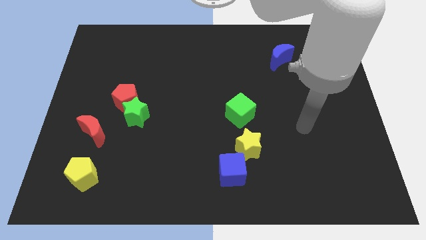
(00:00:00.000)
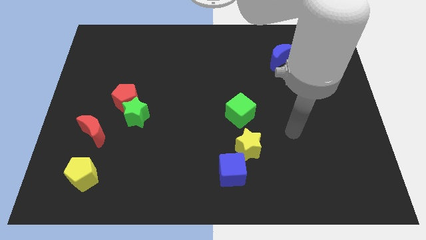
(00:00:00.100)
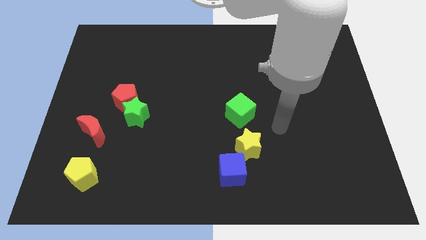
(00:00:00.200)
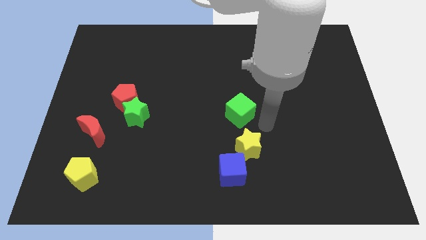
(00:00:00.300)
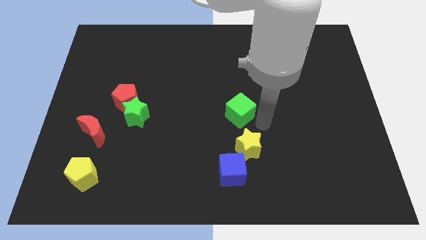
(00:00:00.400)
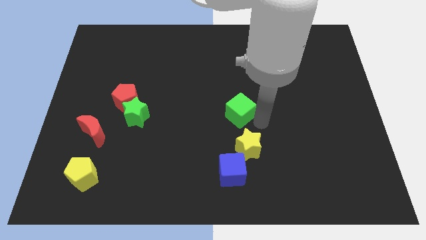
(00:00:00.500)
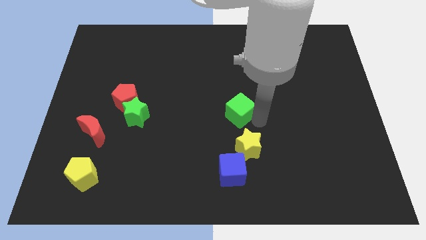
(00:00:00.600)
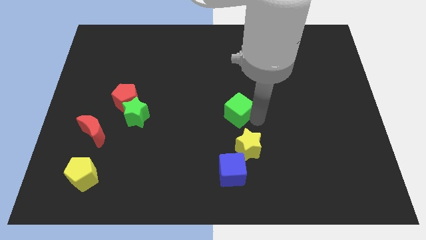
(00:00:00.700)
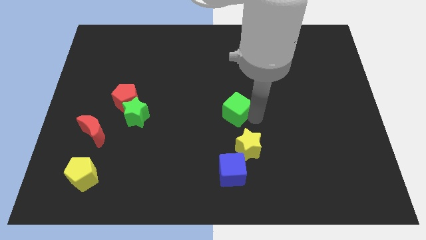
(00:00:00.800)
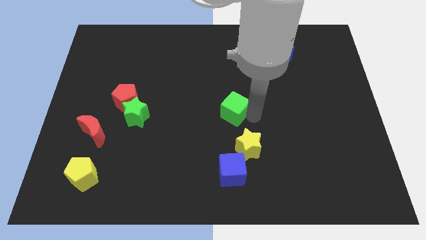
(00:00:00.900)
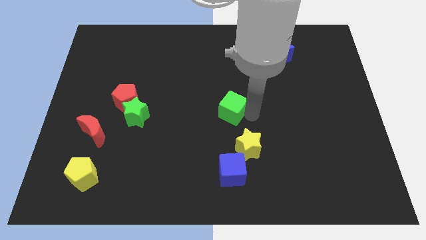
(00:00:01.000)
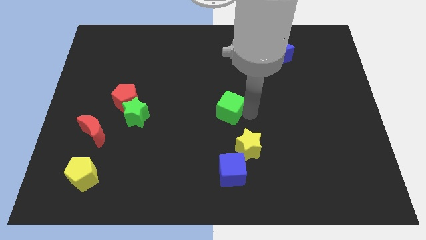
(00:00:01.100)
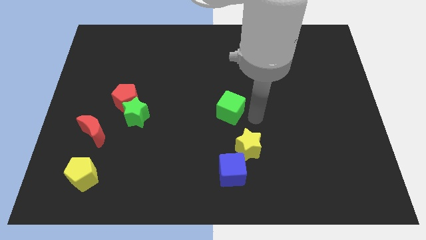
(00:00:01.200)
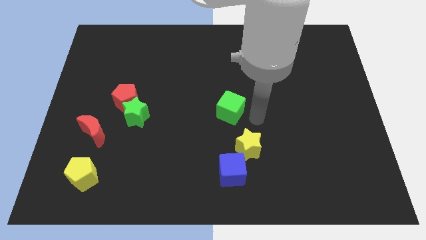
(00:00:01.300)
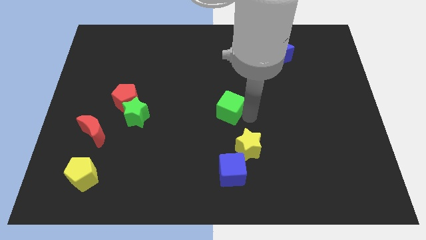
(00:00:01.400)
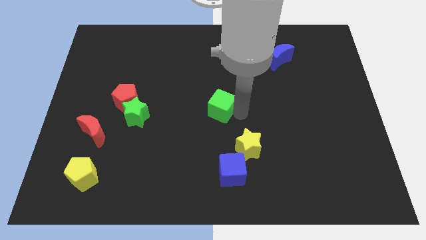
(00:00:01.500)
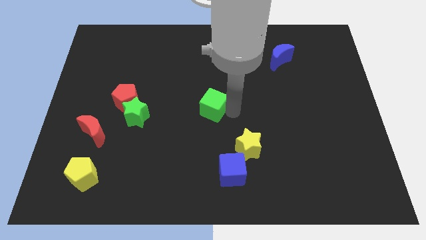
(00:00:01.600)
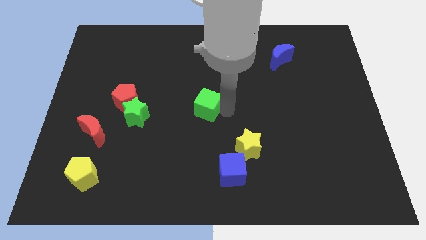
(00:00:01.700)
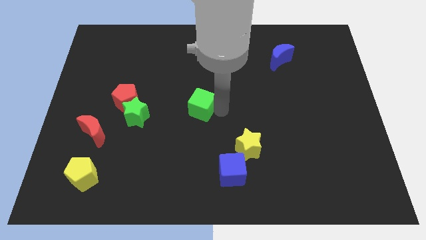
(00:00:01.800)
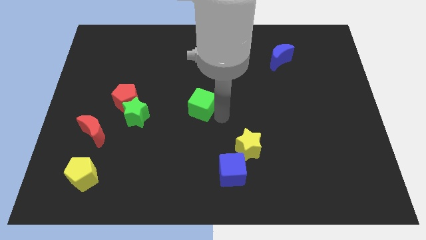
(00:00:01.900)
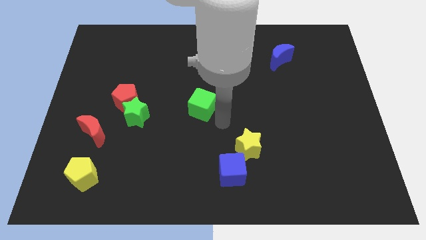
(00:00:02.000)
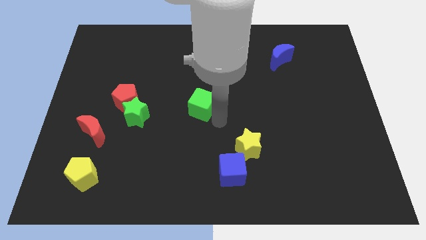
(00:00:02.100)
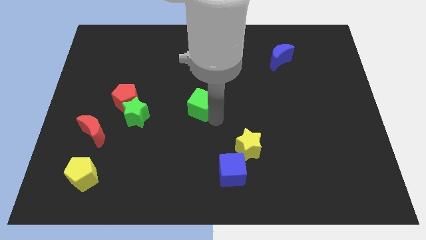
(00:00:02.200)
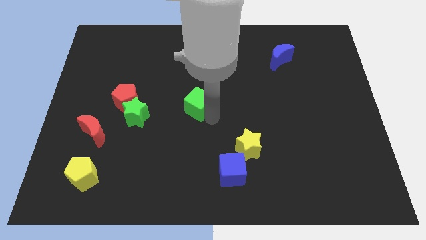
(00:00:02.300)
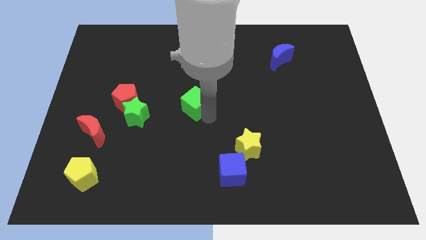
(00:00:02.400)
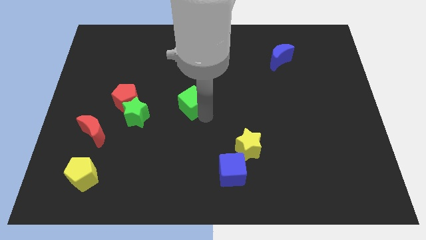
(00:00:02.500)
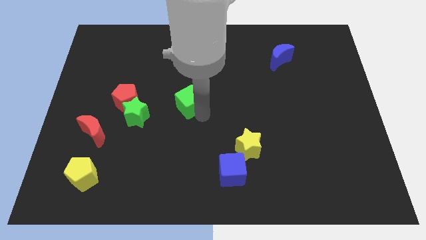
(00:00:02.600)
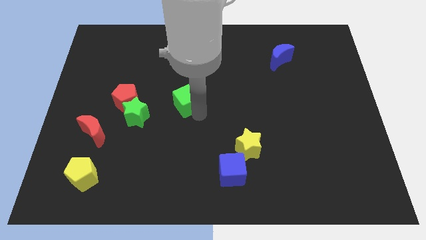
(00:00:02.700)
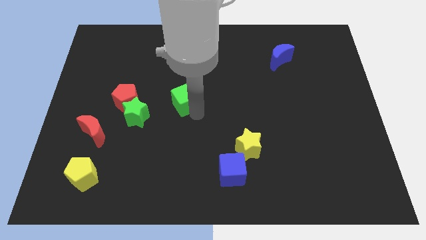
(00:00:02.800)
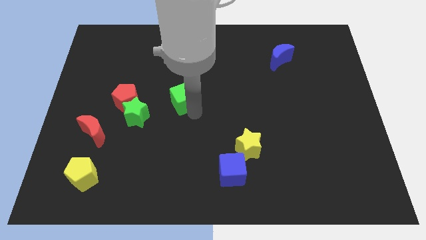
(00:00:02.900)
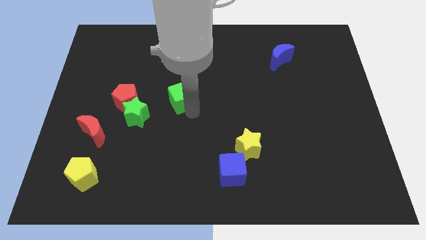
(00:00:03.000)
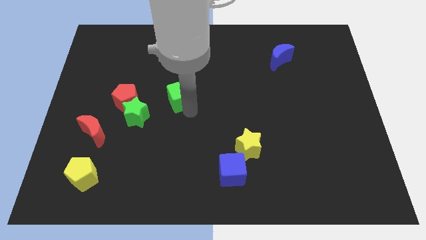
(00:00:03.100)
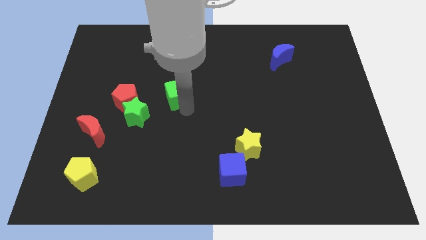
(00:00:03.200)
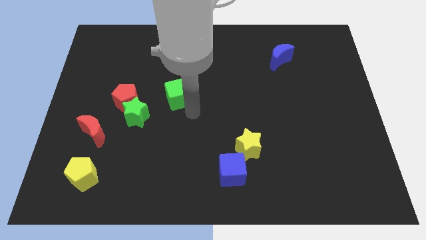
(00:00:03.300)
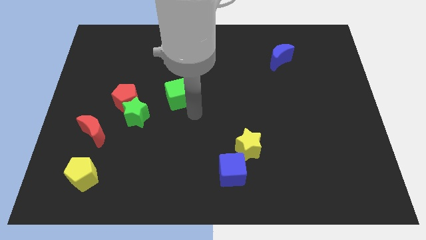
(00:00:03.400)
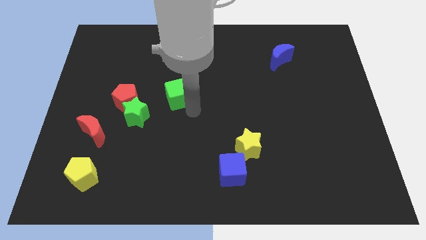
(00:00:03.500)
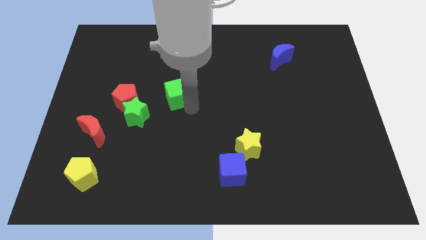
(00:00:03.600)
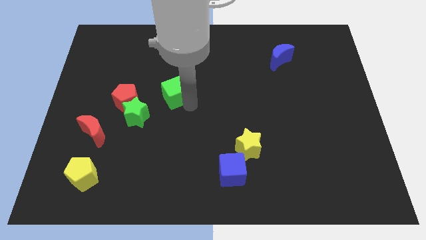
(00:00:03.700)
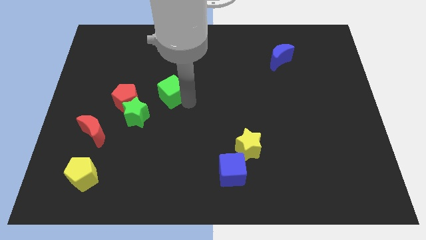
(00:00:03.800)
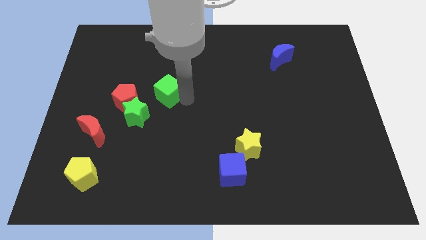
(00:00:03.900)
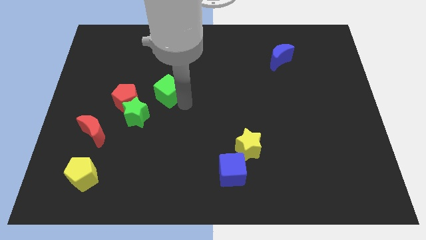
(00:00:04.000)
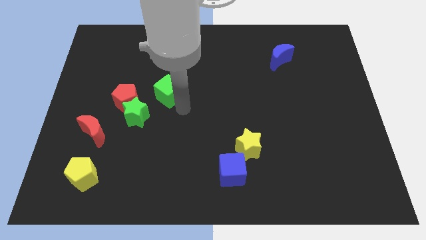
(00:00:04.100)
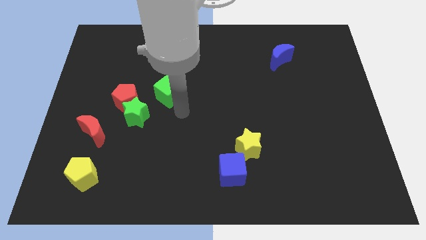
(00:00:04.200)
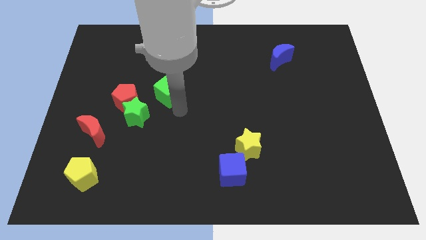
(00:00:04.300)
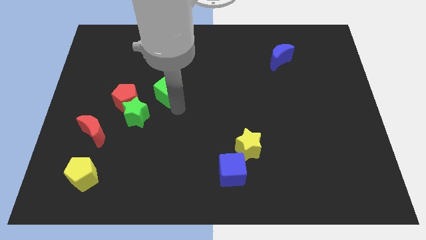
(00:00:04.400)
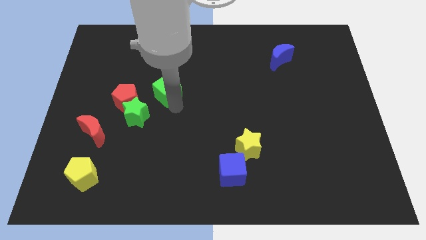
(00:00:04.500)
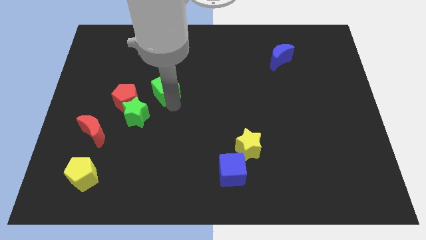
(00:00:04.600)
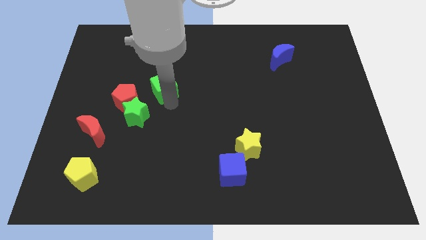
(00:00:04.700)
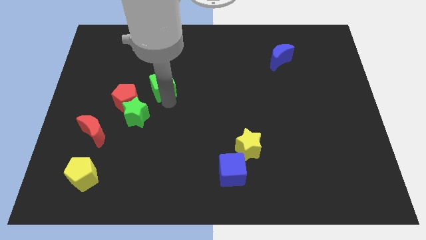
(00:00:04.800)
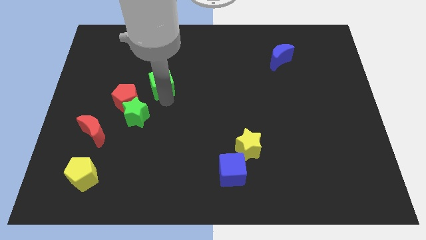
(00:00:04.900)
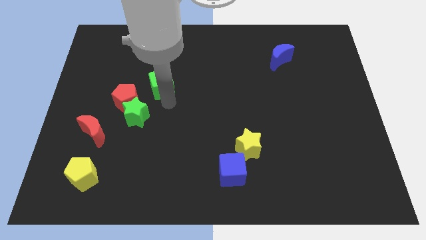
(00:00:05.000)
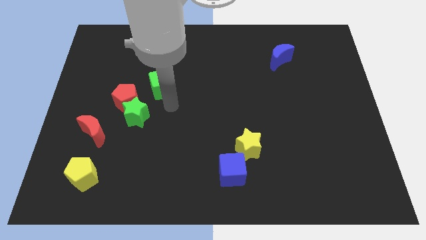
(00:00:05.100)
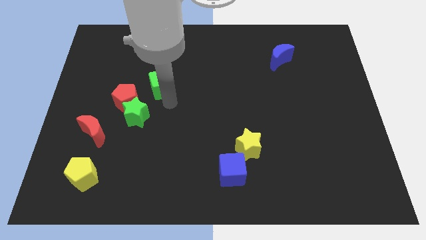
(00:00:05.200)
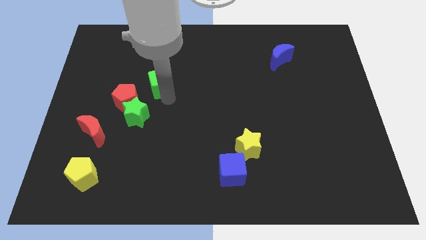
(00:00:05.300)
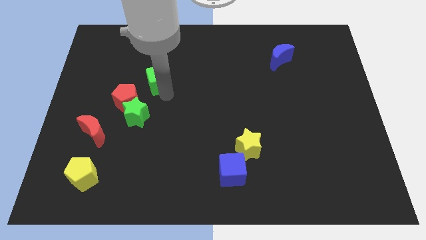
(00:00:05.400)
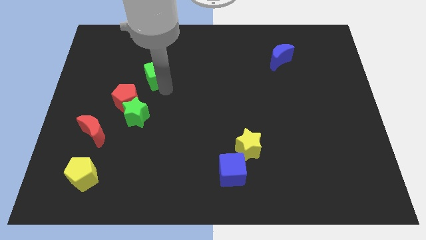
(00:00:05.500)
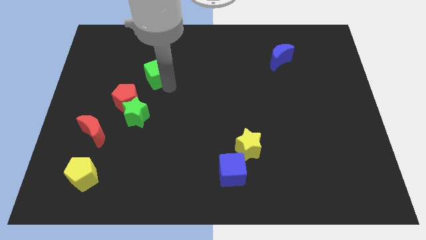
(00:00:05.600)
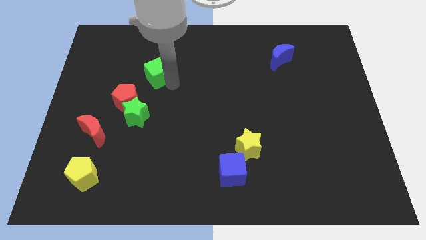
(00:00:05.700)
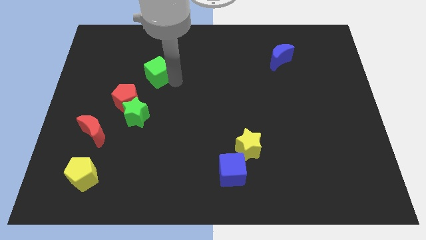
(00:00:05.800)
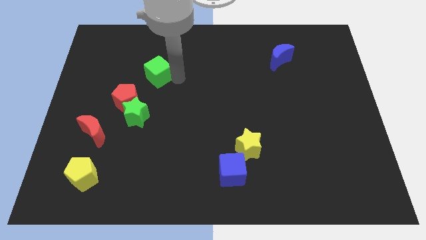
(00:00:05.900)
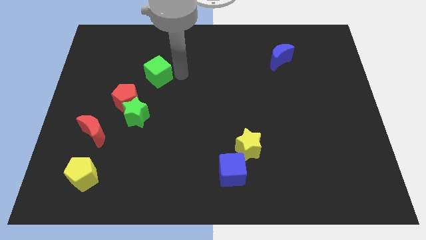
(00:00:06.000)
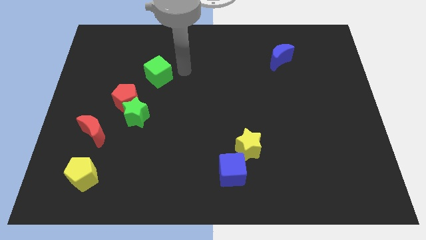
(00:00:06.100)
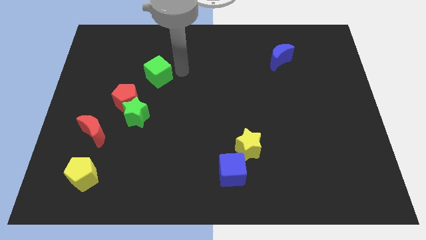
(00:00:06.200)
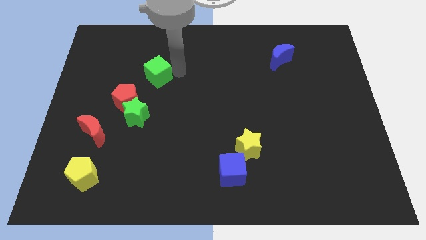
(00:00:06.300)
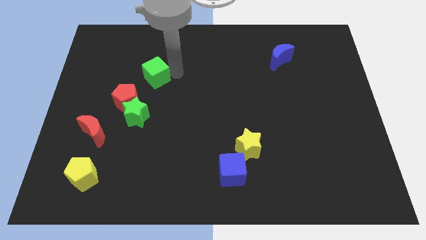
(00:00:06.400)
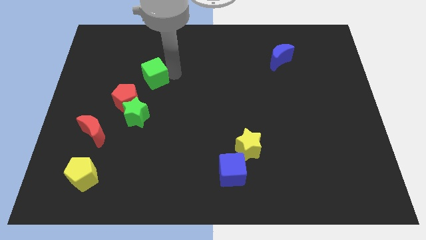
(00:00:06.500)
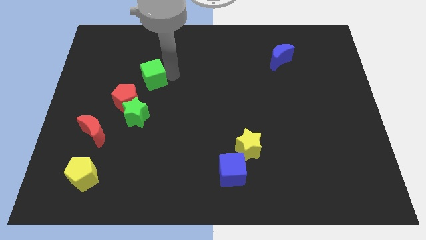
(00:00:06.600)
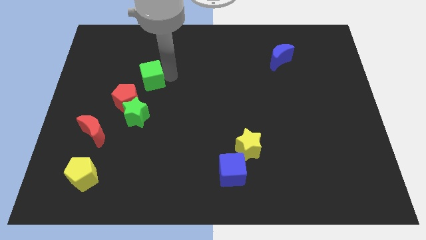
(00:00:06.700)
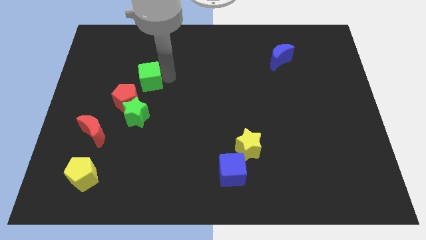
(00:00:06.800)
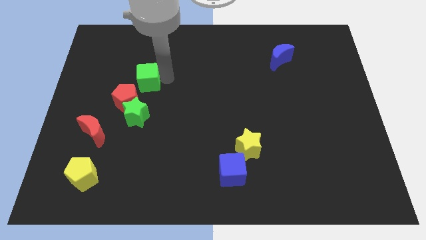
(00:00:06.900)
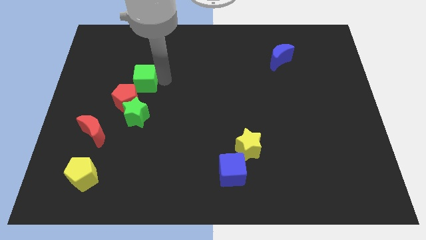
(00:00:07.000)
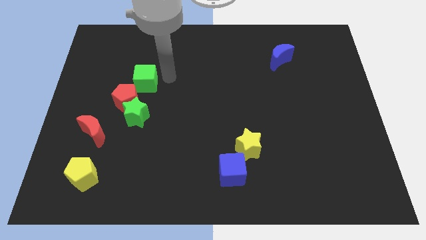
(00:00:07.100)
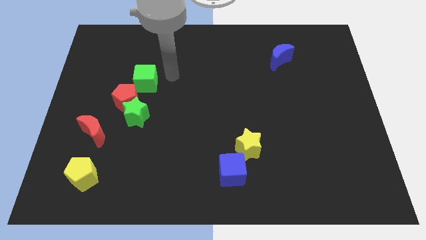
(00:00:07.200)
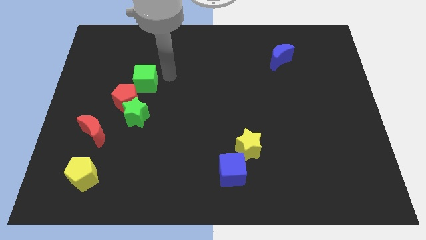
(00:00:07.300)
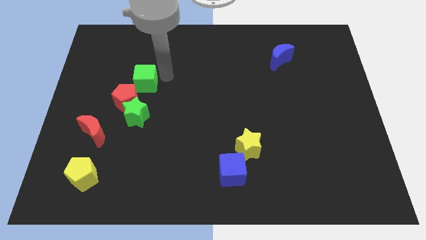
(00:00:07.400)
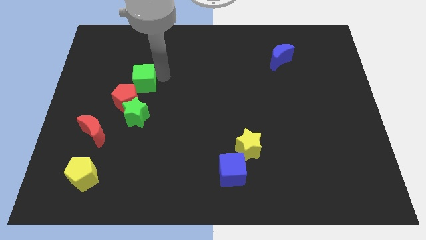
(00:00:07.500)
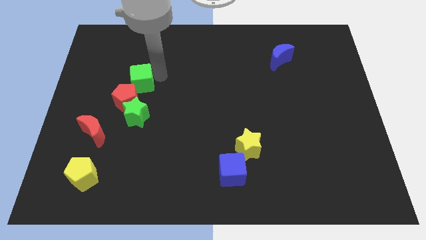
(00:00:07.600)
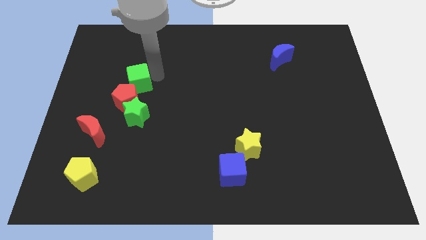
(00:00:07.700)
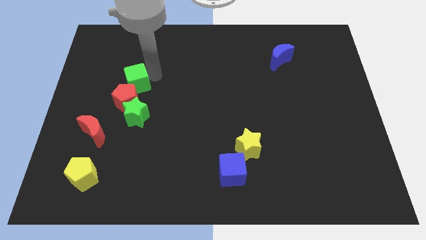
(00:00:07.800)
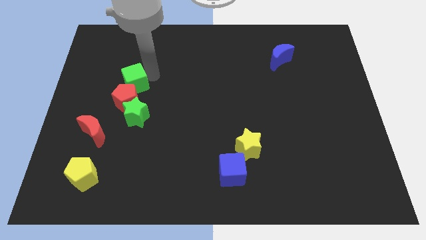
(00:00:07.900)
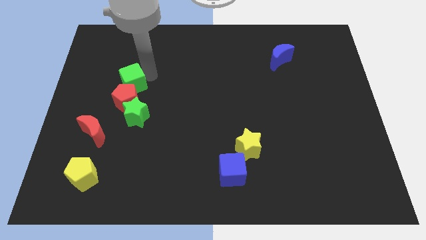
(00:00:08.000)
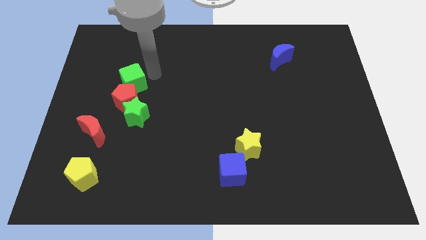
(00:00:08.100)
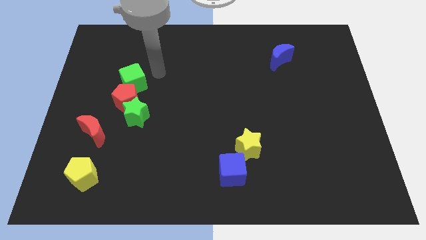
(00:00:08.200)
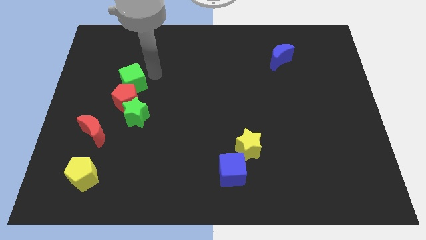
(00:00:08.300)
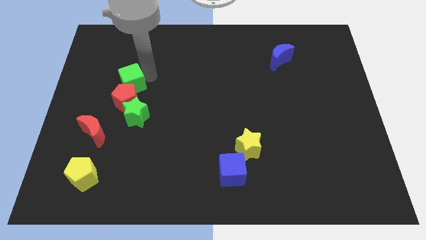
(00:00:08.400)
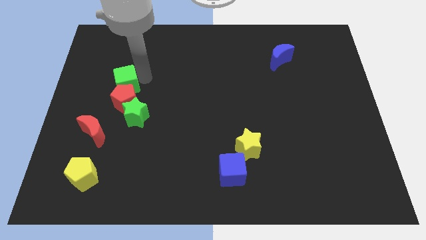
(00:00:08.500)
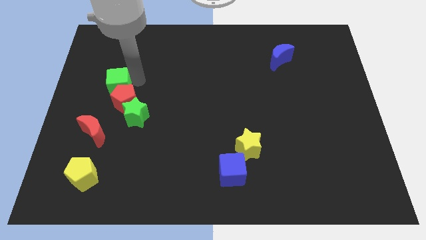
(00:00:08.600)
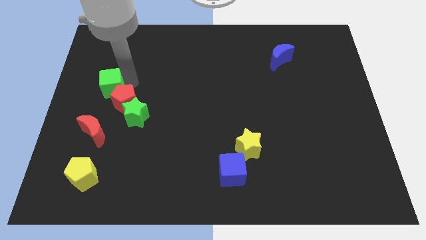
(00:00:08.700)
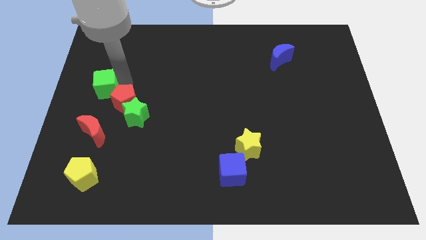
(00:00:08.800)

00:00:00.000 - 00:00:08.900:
push the green cube to the center left
